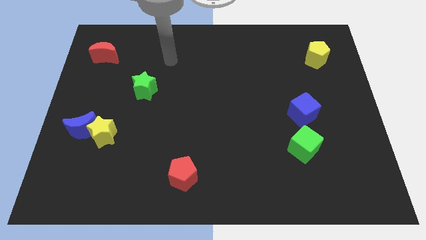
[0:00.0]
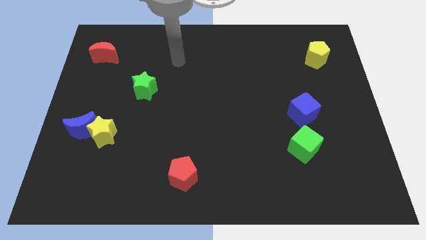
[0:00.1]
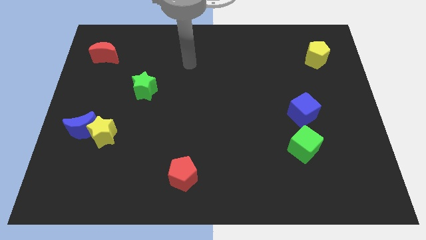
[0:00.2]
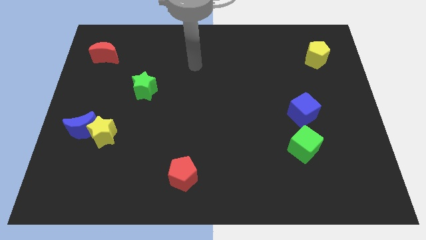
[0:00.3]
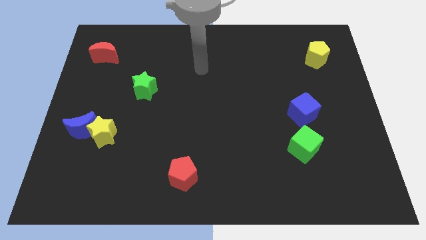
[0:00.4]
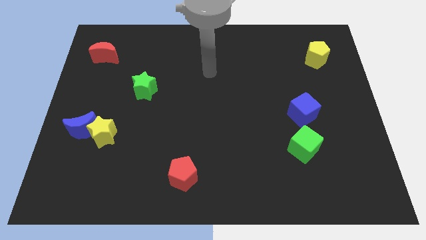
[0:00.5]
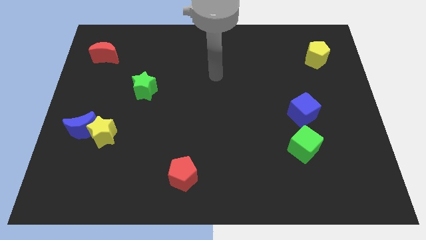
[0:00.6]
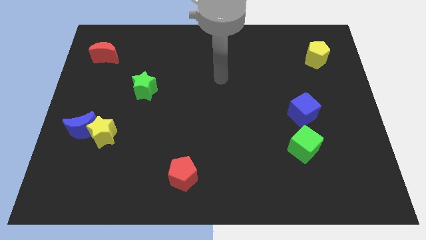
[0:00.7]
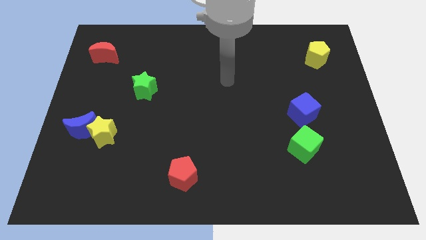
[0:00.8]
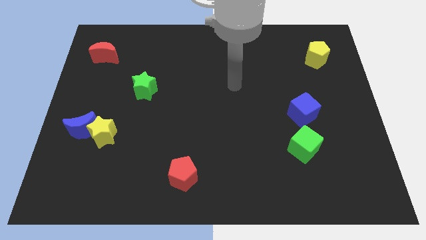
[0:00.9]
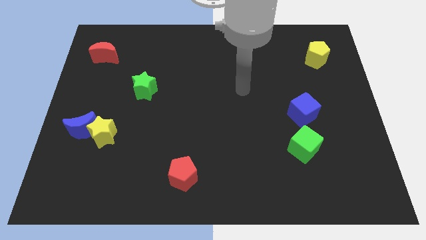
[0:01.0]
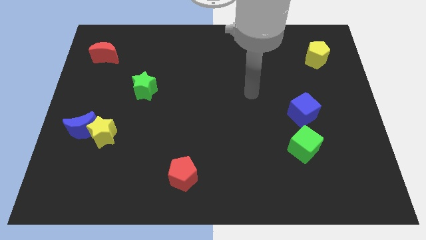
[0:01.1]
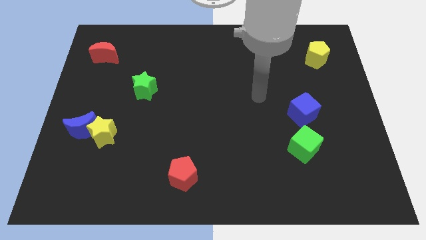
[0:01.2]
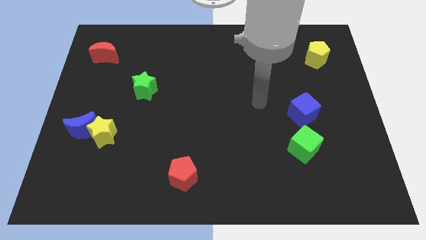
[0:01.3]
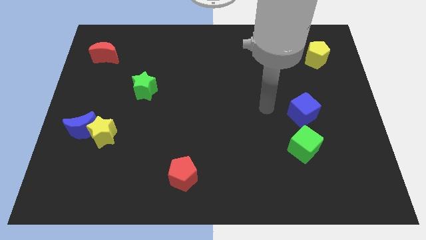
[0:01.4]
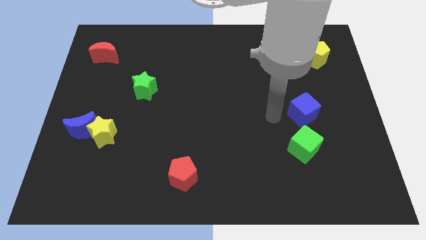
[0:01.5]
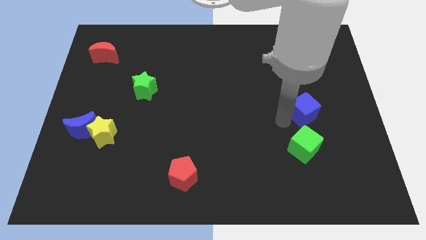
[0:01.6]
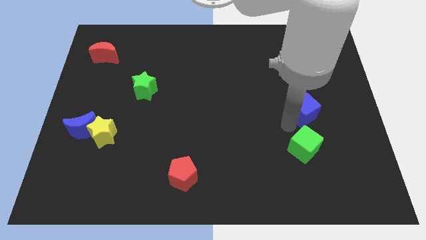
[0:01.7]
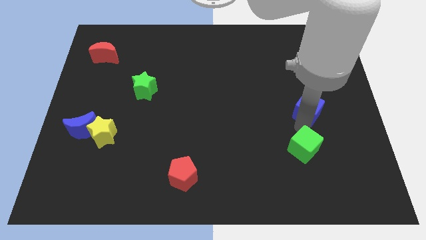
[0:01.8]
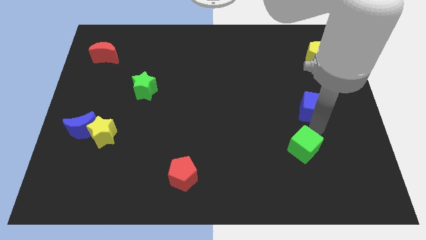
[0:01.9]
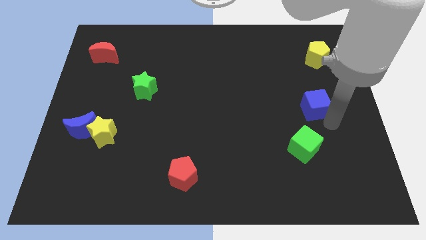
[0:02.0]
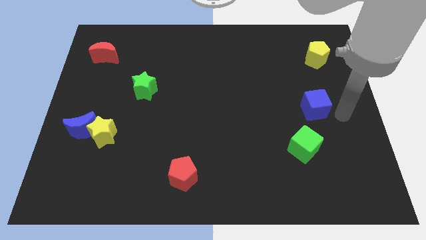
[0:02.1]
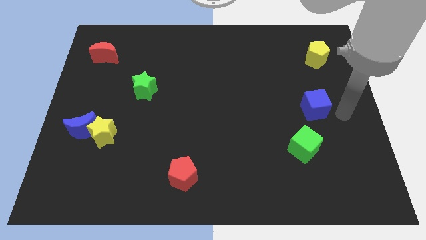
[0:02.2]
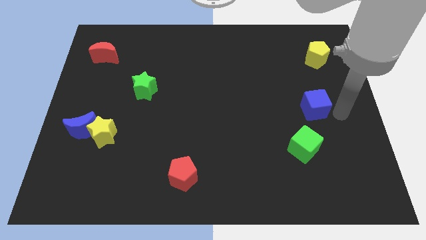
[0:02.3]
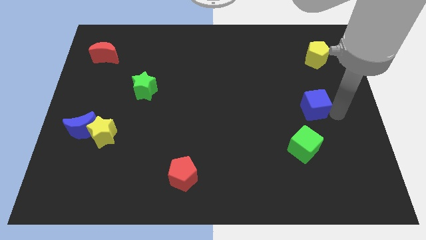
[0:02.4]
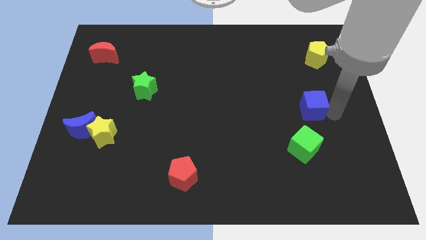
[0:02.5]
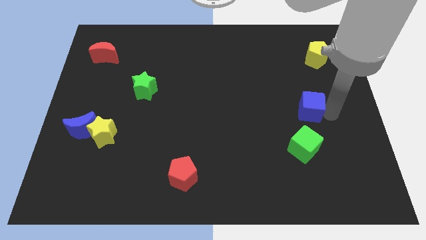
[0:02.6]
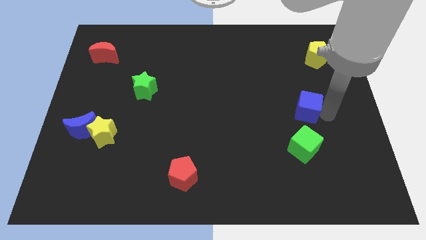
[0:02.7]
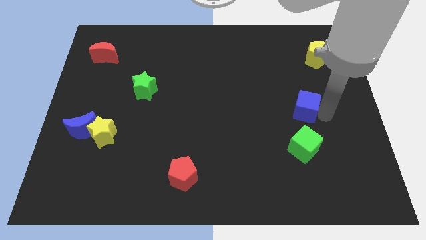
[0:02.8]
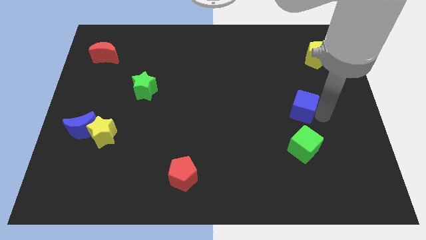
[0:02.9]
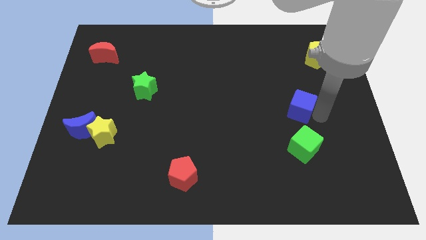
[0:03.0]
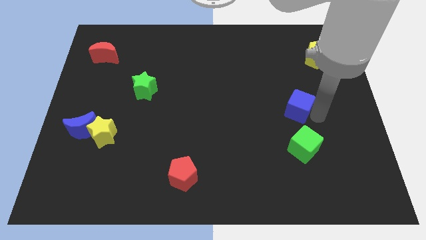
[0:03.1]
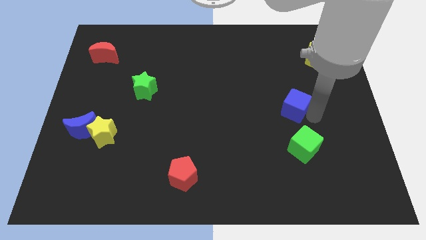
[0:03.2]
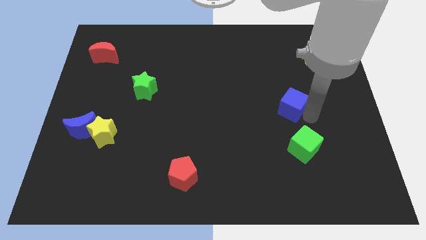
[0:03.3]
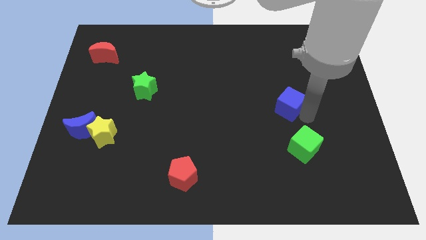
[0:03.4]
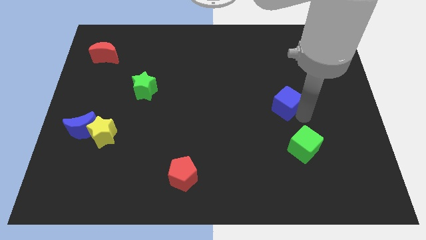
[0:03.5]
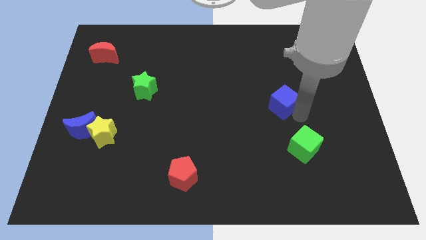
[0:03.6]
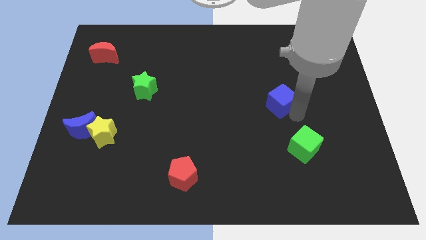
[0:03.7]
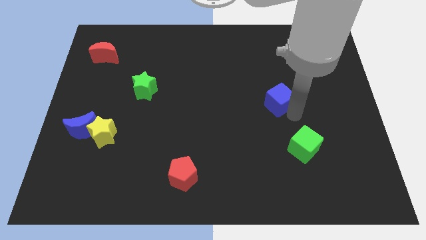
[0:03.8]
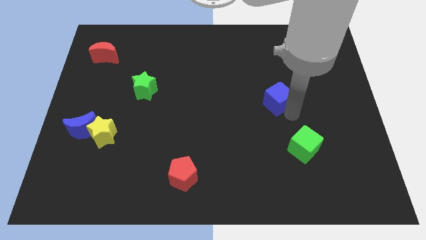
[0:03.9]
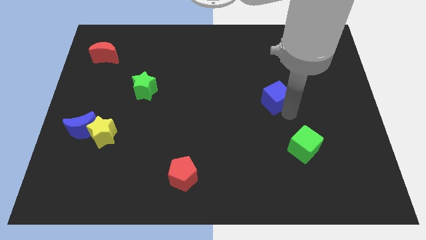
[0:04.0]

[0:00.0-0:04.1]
slightly slide the blue cube up and to the left diagonally

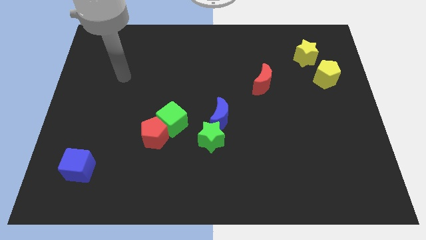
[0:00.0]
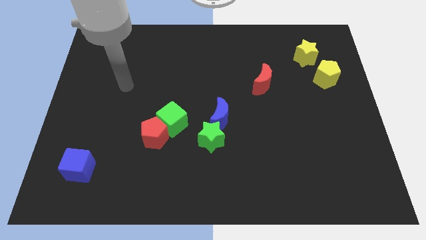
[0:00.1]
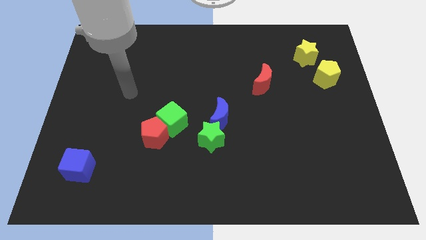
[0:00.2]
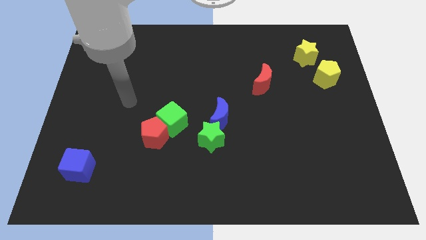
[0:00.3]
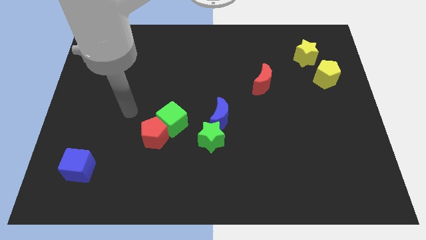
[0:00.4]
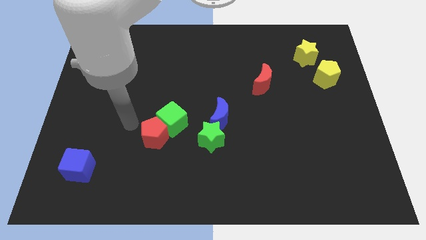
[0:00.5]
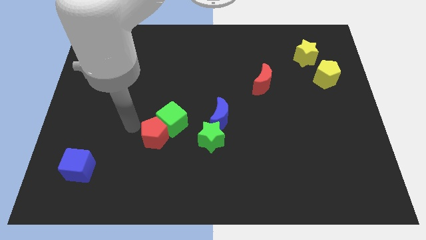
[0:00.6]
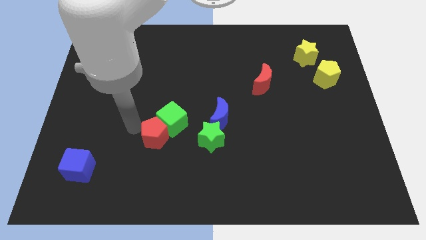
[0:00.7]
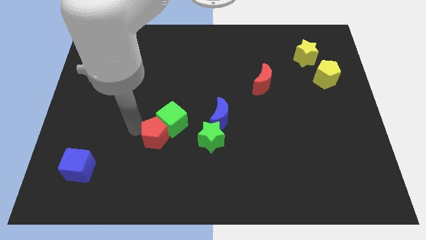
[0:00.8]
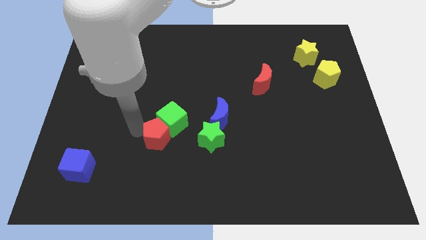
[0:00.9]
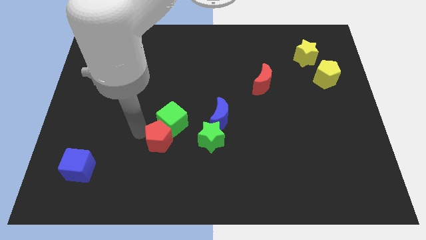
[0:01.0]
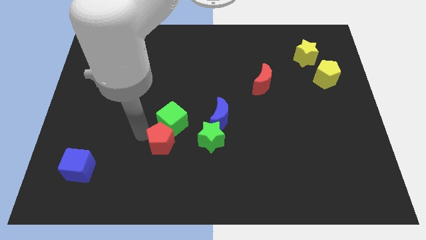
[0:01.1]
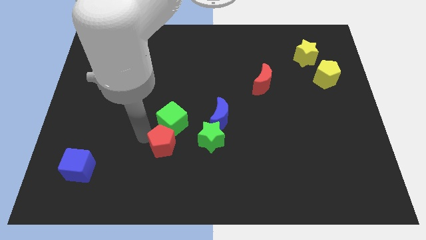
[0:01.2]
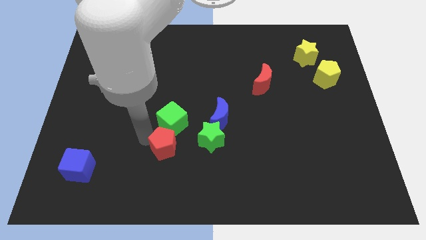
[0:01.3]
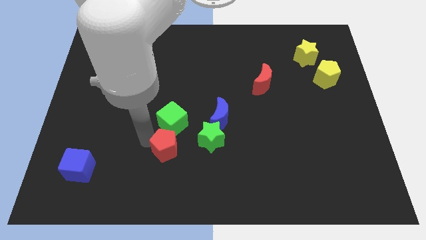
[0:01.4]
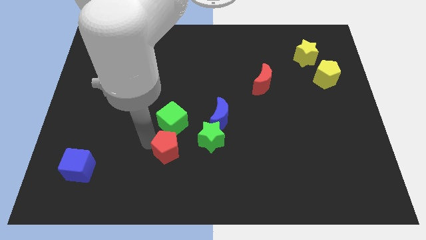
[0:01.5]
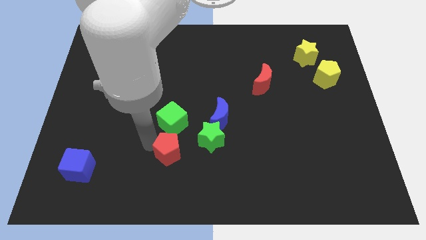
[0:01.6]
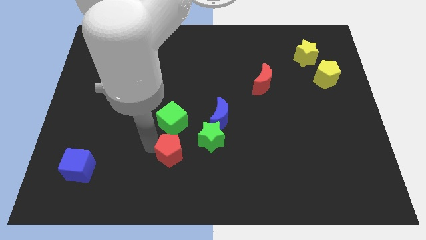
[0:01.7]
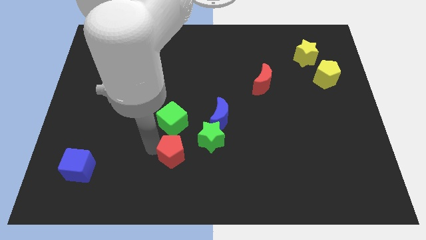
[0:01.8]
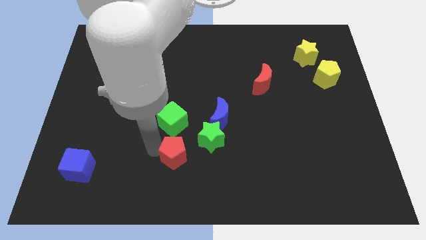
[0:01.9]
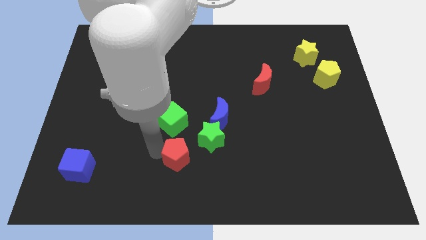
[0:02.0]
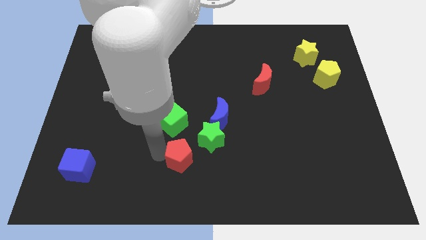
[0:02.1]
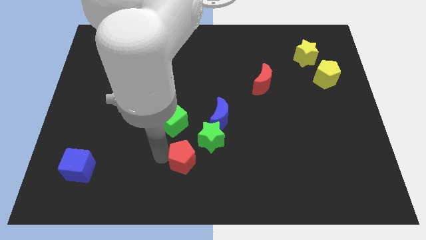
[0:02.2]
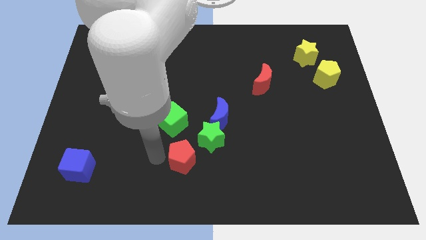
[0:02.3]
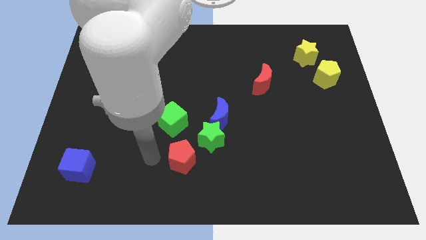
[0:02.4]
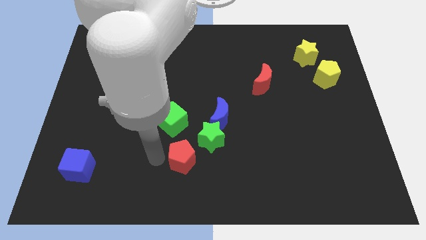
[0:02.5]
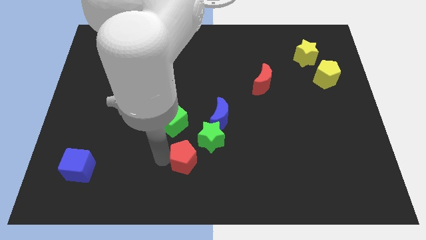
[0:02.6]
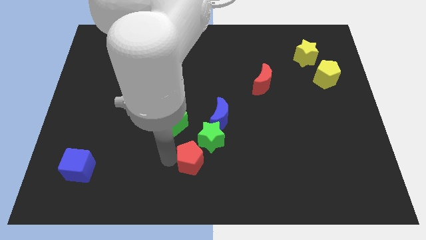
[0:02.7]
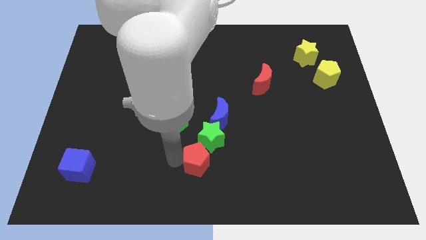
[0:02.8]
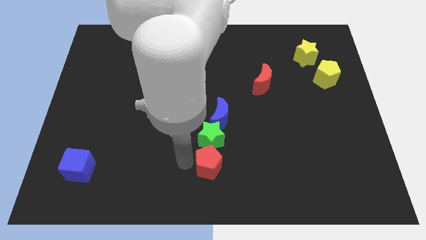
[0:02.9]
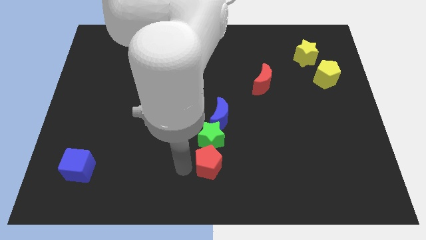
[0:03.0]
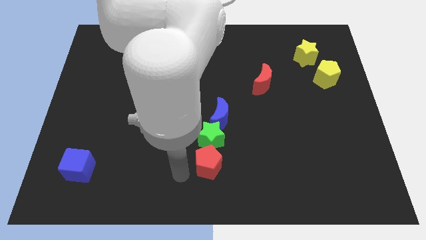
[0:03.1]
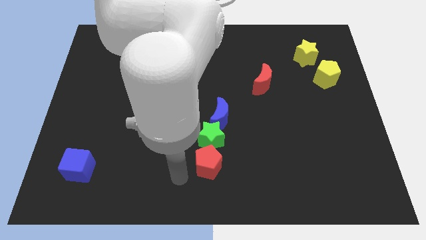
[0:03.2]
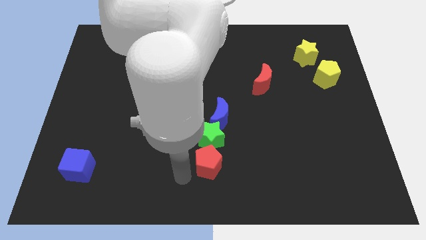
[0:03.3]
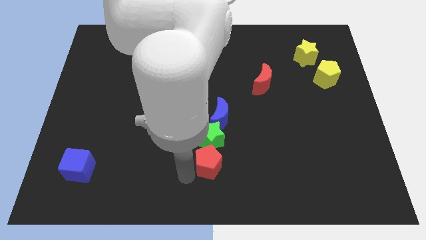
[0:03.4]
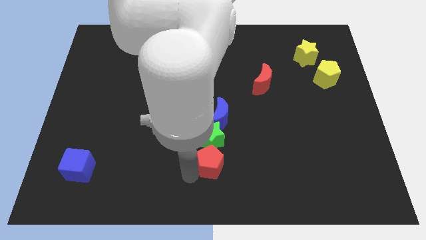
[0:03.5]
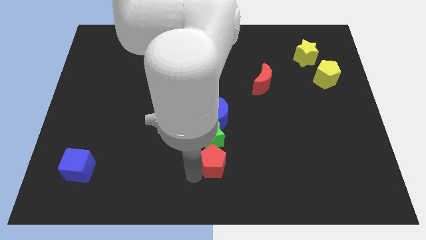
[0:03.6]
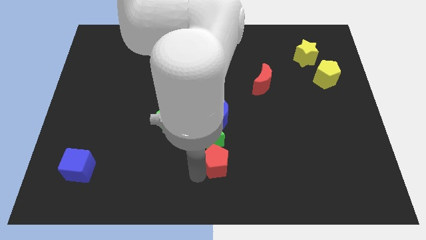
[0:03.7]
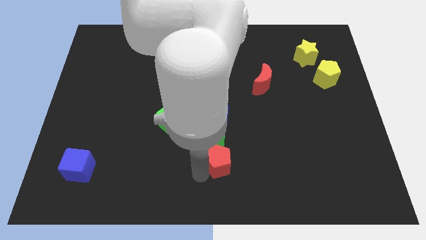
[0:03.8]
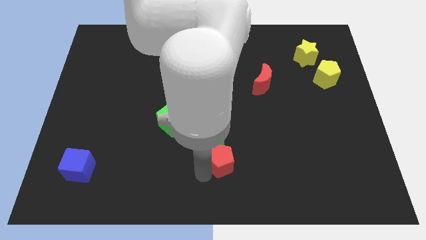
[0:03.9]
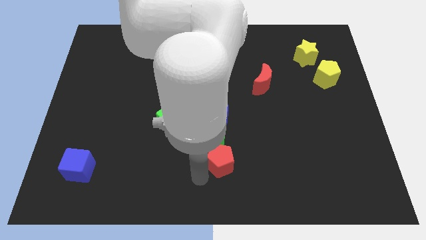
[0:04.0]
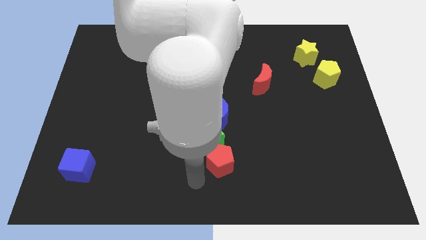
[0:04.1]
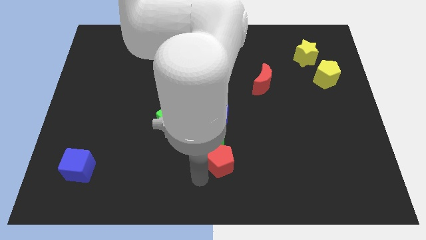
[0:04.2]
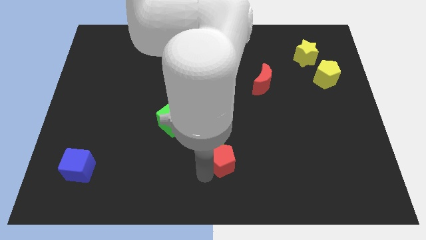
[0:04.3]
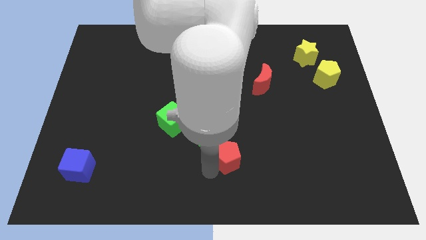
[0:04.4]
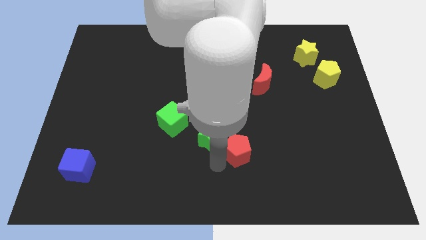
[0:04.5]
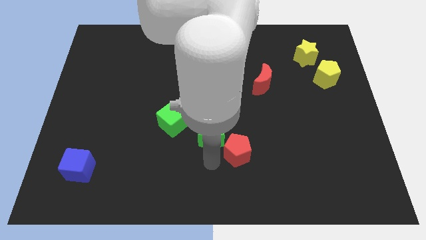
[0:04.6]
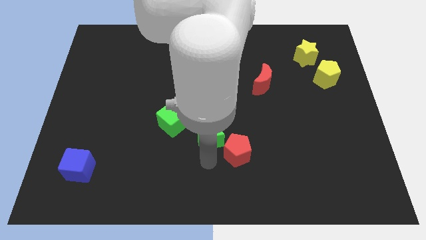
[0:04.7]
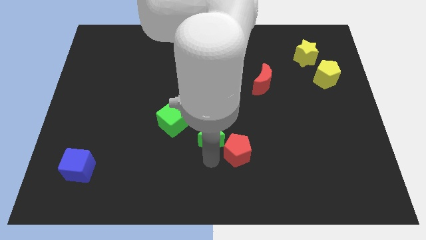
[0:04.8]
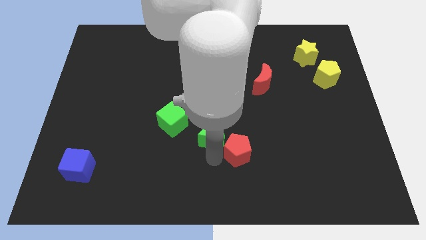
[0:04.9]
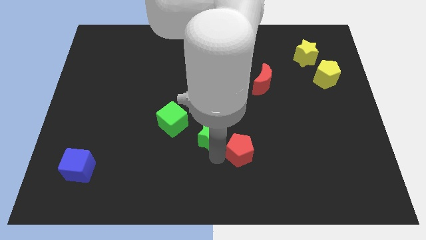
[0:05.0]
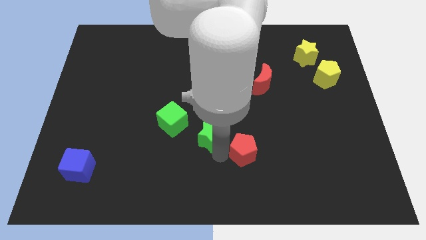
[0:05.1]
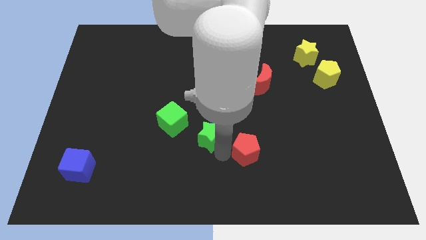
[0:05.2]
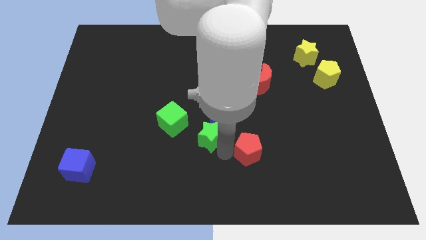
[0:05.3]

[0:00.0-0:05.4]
slide the red pentagon right
